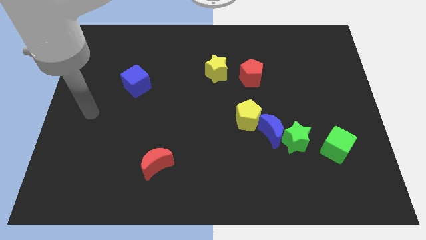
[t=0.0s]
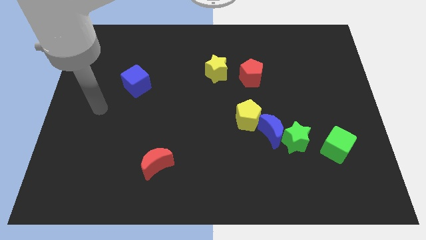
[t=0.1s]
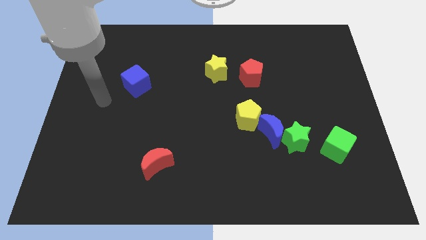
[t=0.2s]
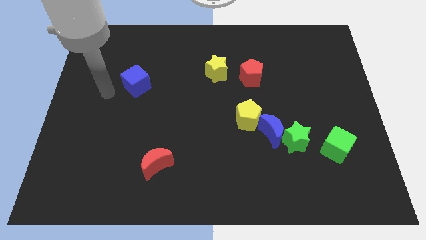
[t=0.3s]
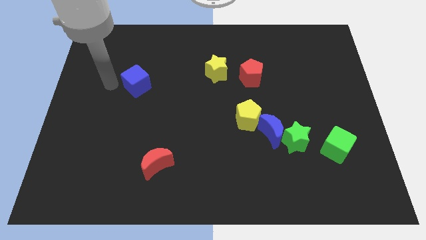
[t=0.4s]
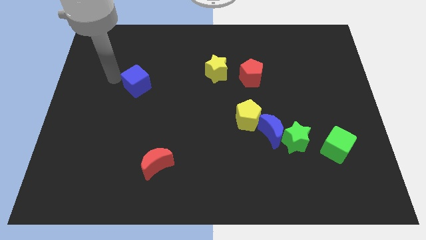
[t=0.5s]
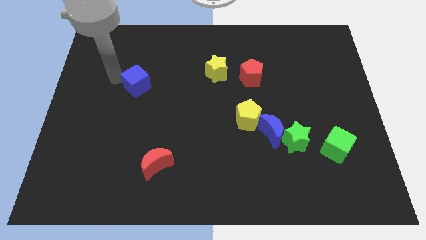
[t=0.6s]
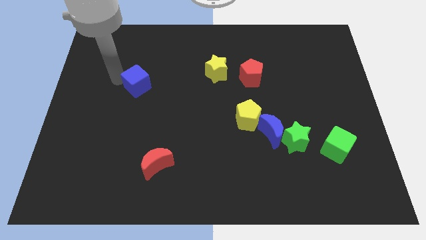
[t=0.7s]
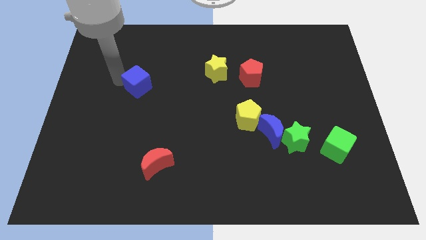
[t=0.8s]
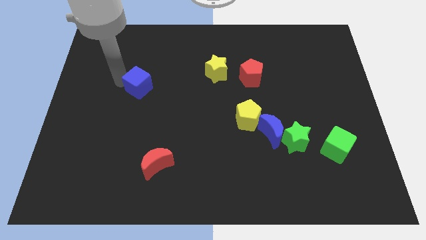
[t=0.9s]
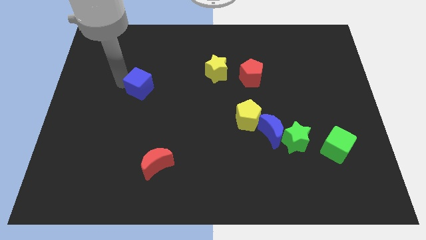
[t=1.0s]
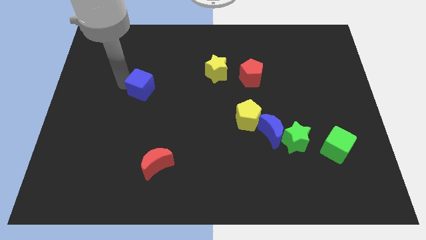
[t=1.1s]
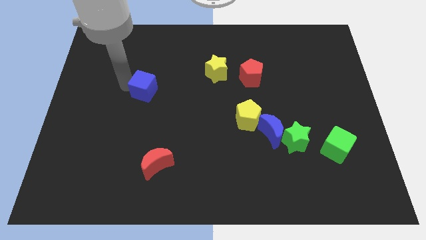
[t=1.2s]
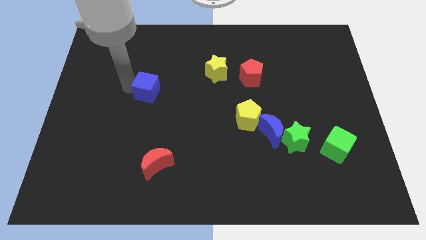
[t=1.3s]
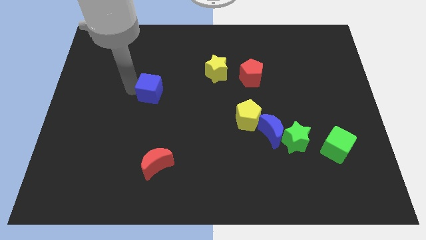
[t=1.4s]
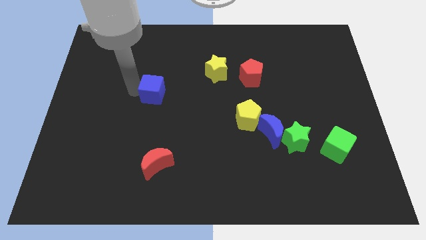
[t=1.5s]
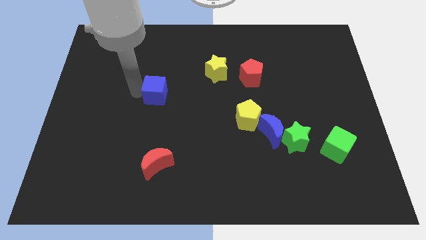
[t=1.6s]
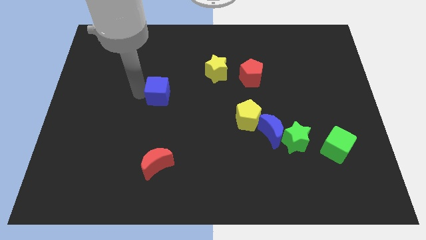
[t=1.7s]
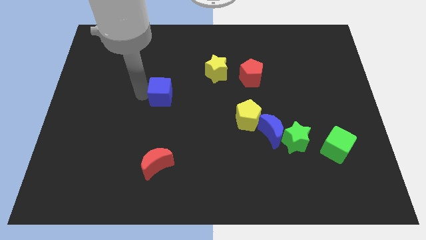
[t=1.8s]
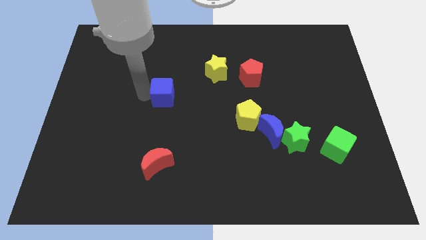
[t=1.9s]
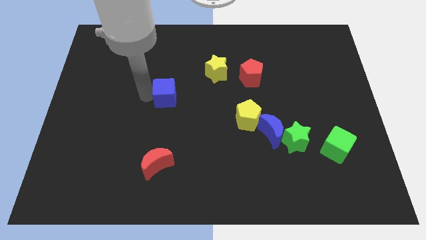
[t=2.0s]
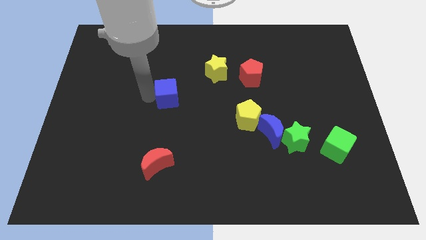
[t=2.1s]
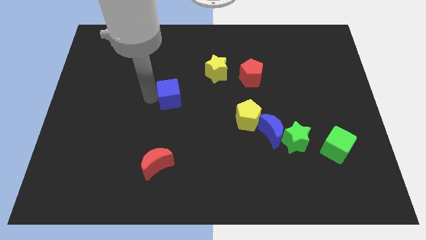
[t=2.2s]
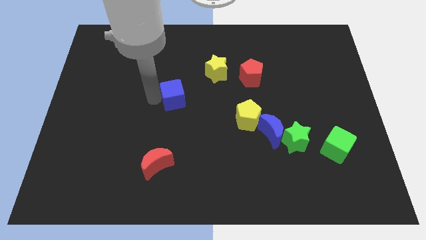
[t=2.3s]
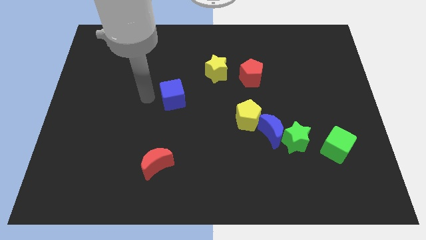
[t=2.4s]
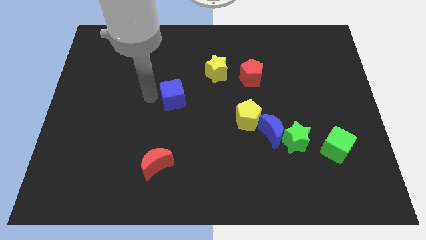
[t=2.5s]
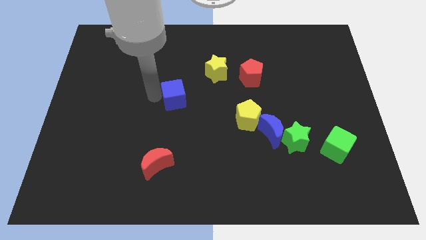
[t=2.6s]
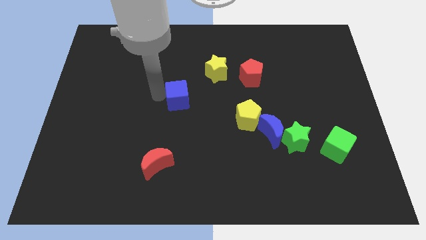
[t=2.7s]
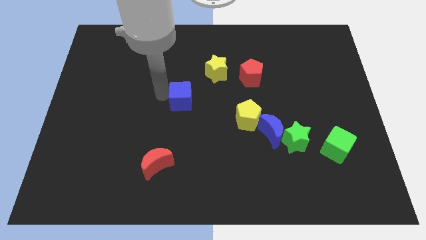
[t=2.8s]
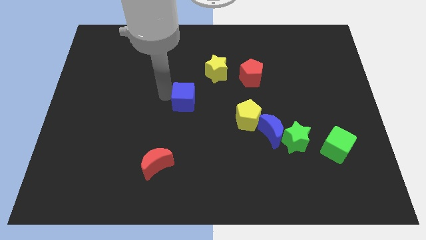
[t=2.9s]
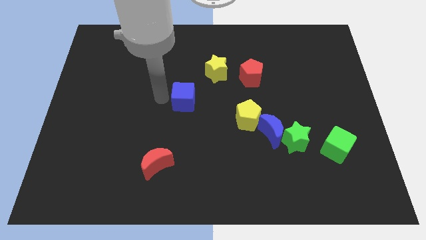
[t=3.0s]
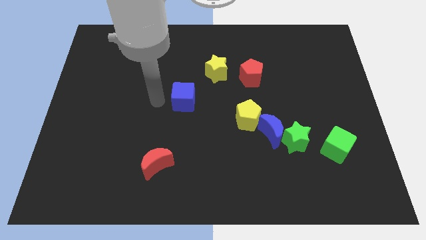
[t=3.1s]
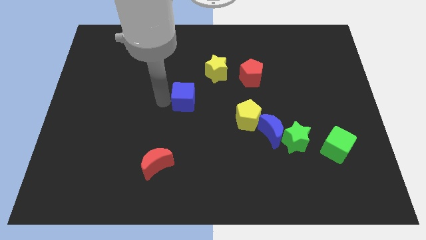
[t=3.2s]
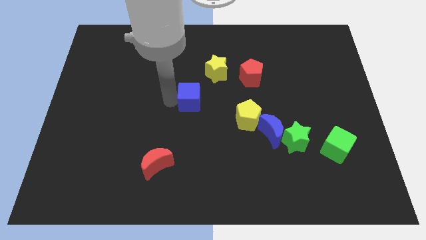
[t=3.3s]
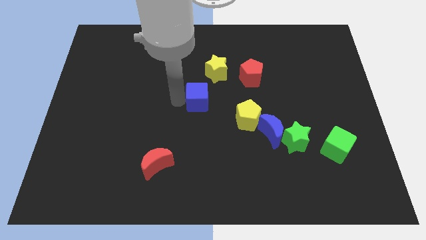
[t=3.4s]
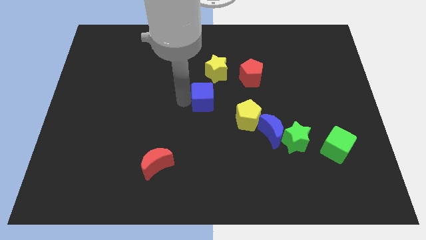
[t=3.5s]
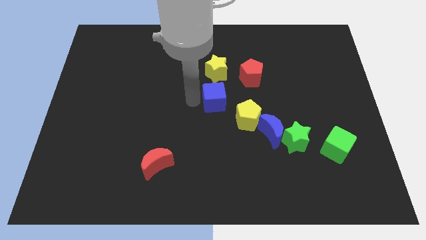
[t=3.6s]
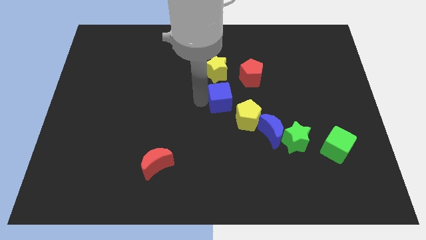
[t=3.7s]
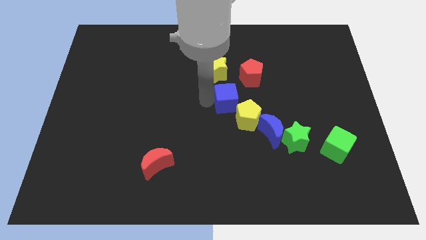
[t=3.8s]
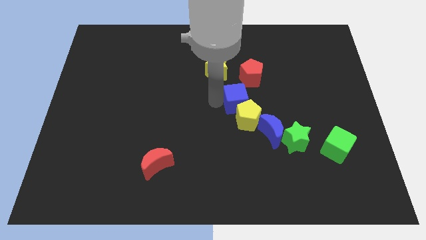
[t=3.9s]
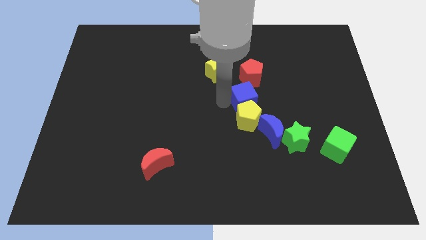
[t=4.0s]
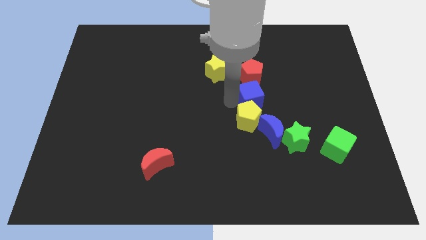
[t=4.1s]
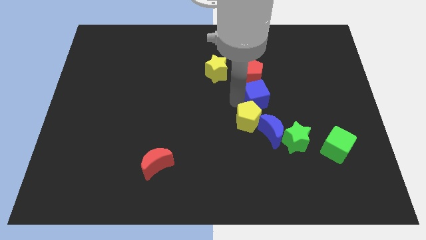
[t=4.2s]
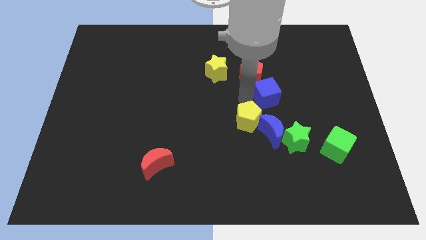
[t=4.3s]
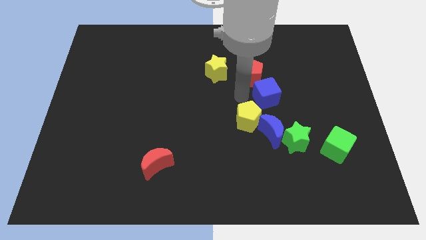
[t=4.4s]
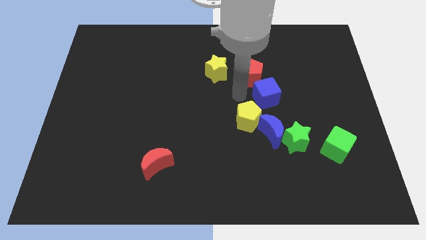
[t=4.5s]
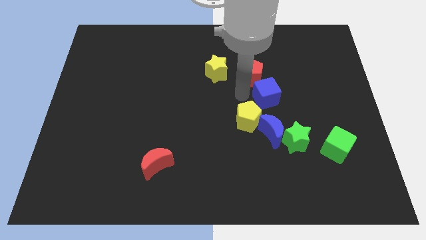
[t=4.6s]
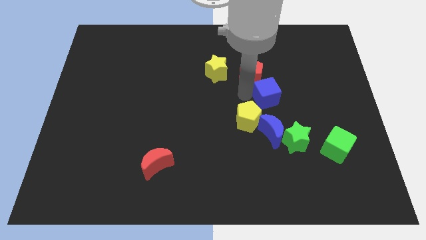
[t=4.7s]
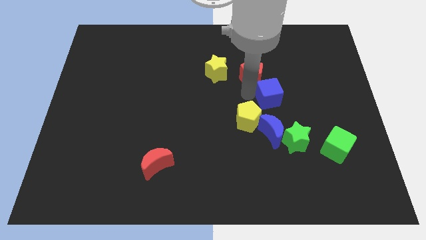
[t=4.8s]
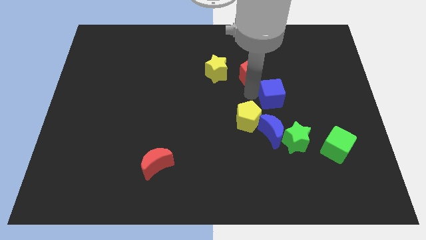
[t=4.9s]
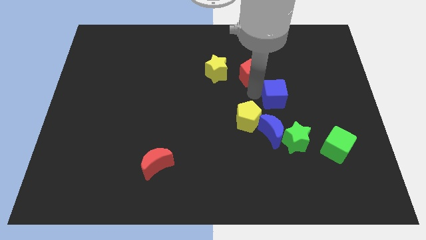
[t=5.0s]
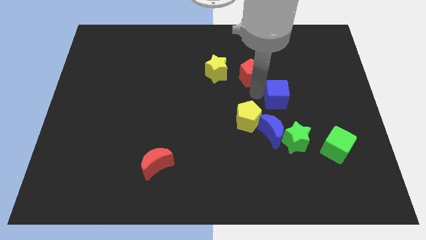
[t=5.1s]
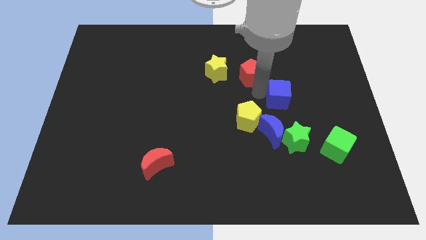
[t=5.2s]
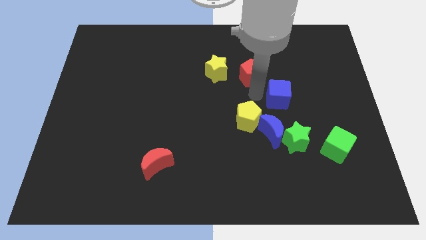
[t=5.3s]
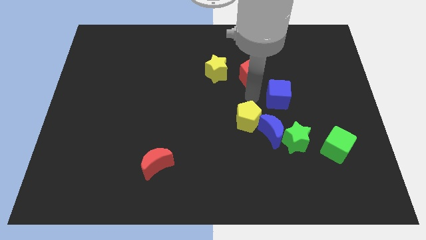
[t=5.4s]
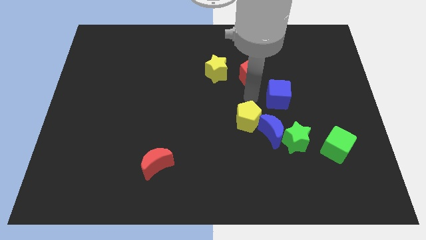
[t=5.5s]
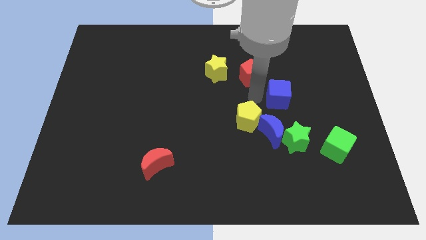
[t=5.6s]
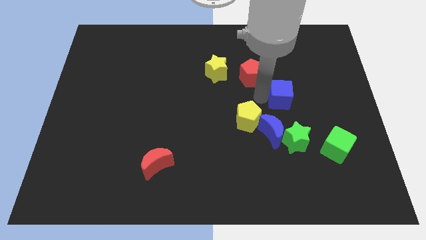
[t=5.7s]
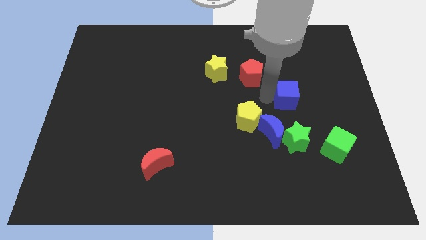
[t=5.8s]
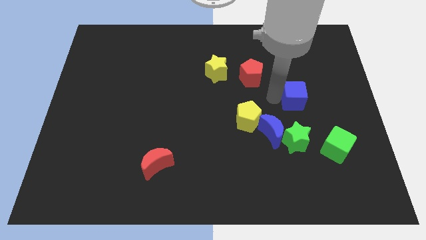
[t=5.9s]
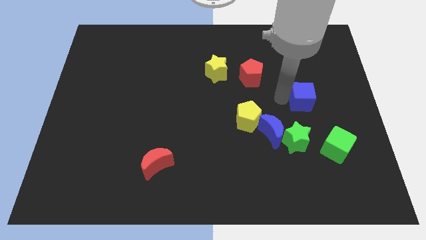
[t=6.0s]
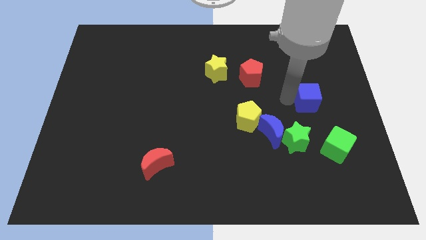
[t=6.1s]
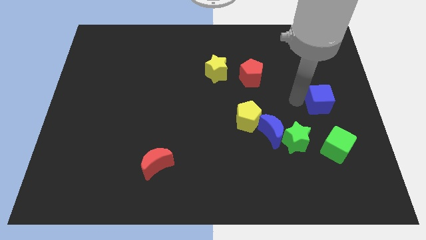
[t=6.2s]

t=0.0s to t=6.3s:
move the blue cube to the right side
